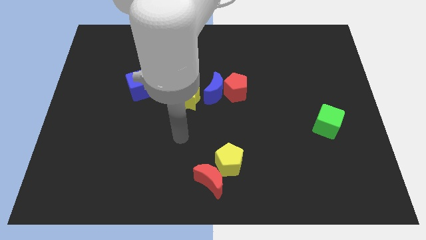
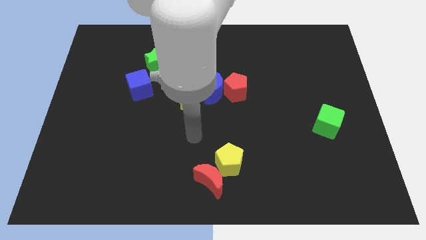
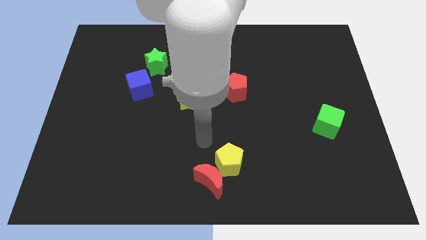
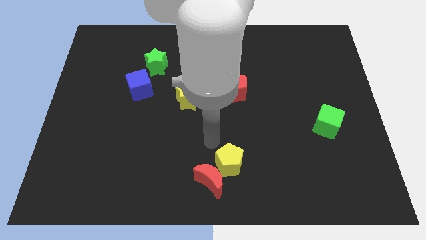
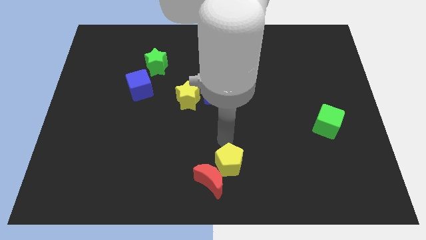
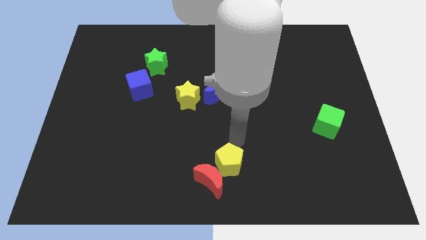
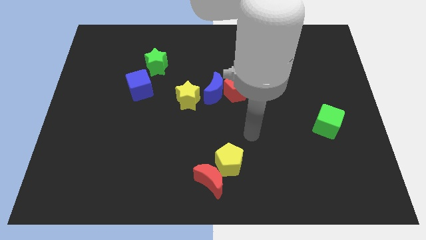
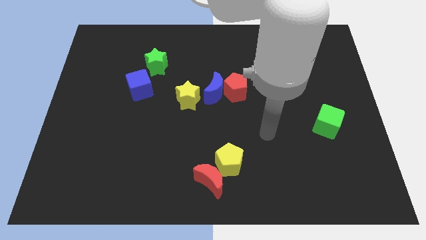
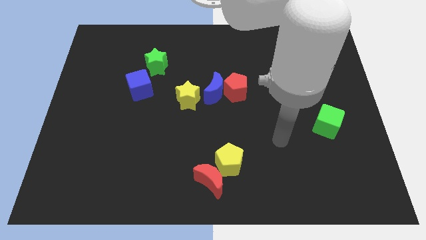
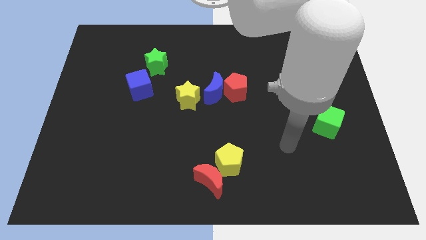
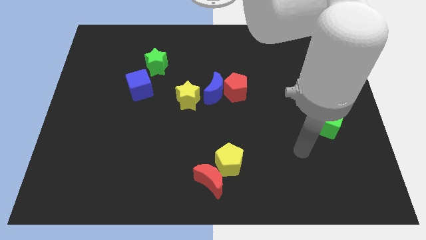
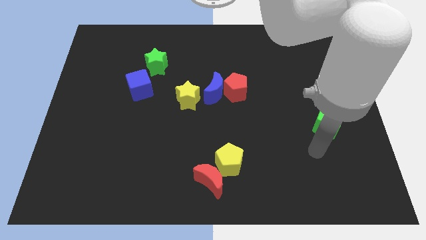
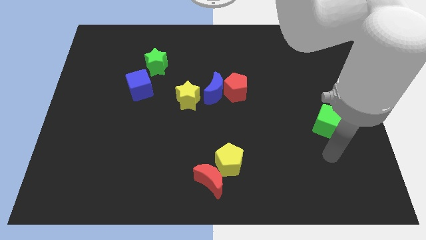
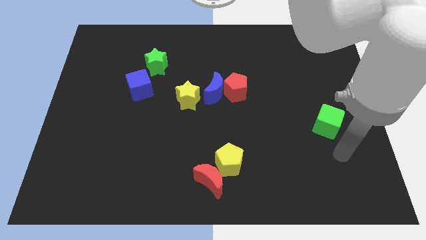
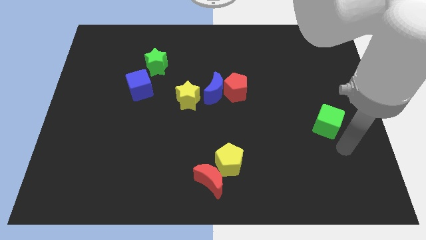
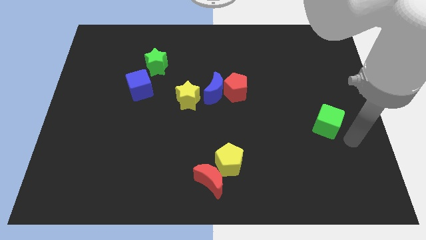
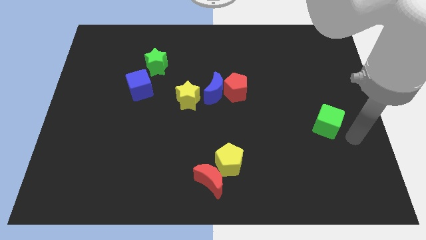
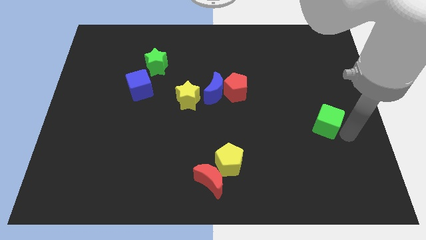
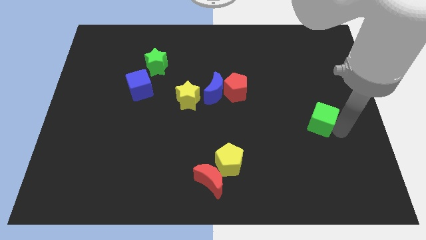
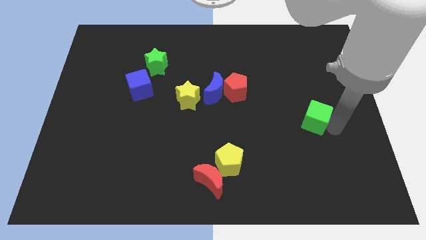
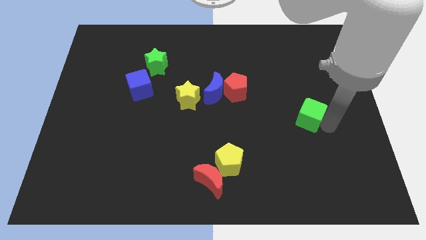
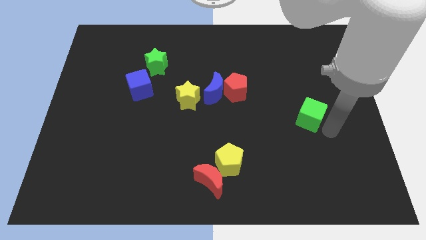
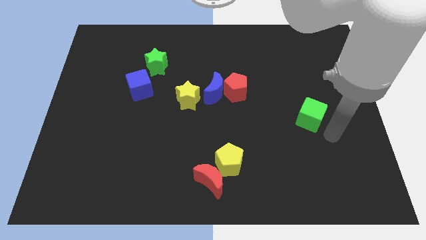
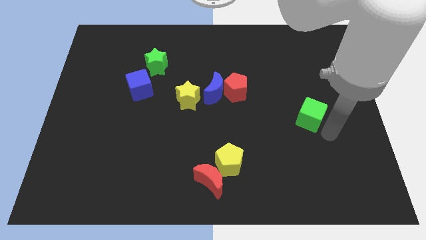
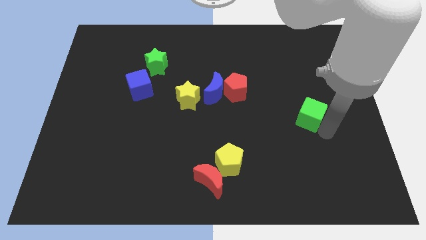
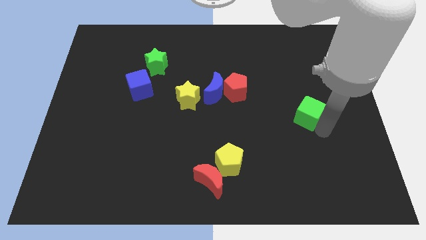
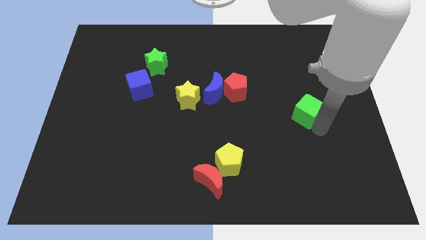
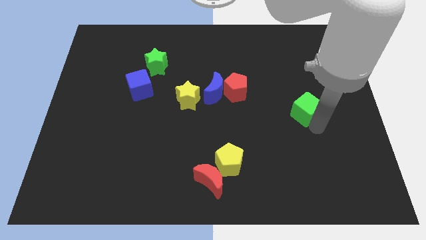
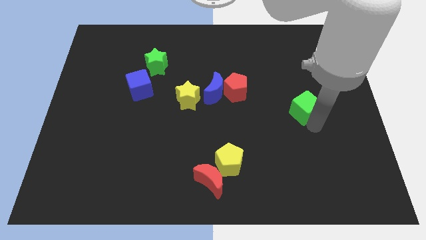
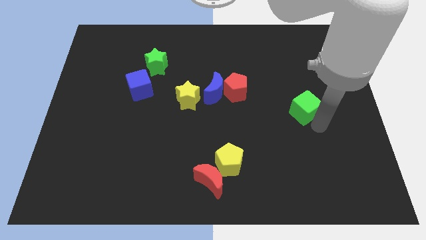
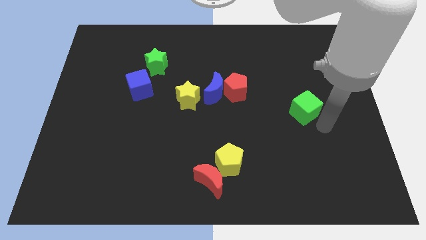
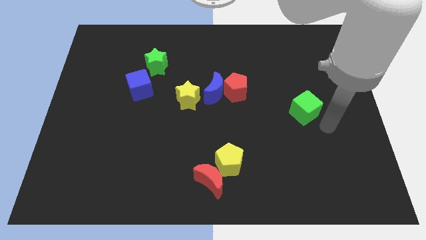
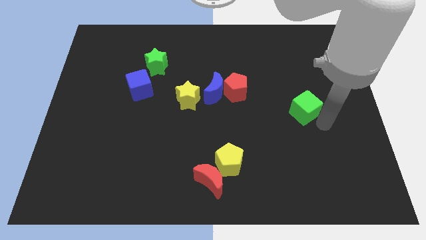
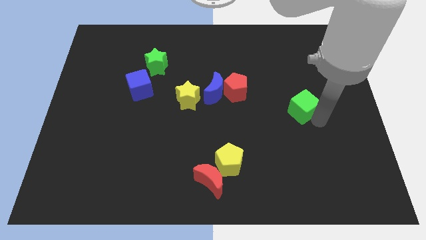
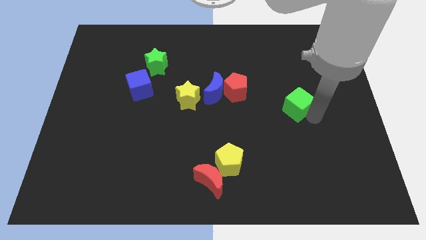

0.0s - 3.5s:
push the green cube a little bit diagonally up and left

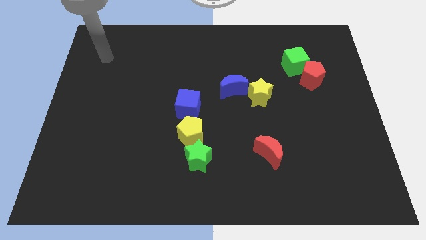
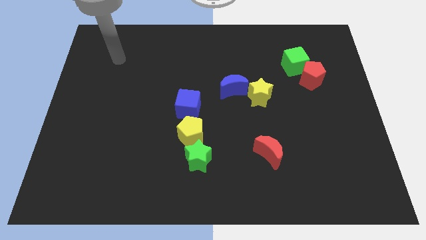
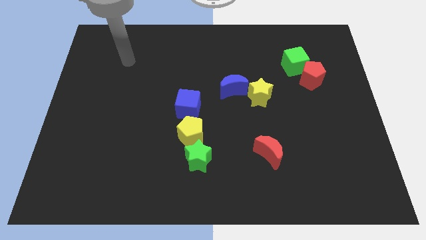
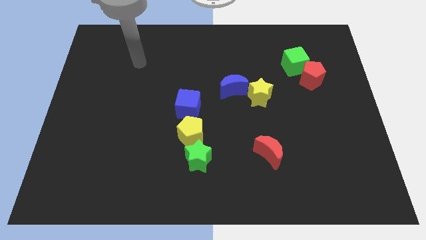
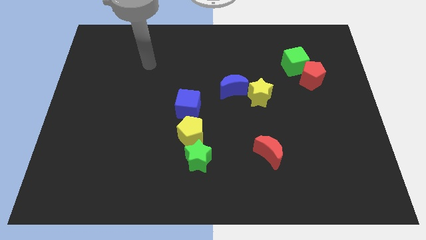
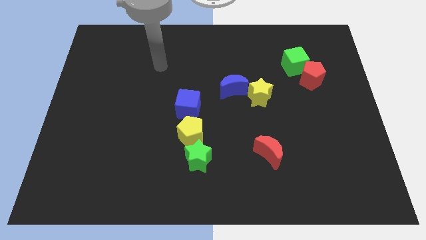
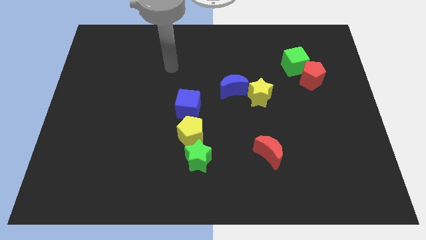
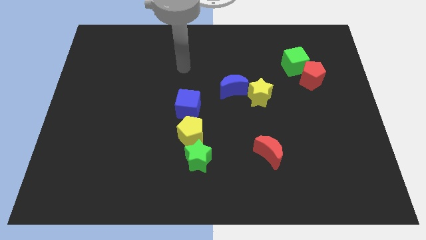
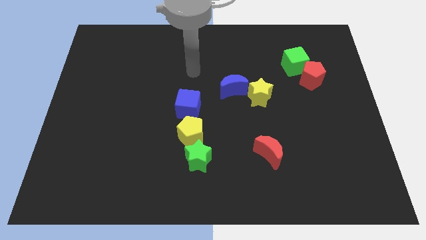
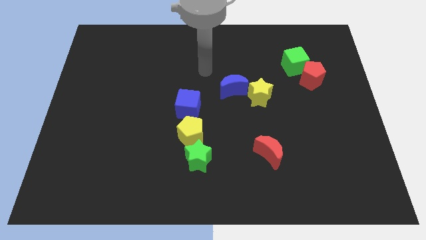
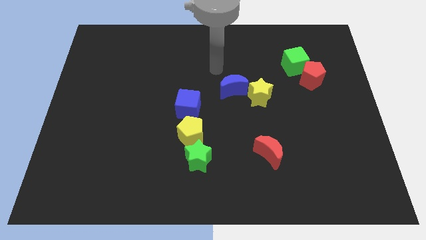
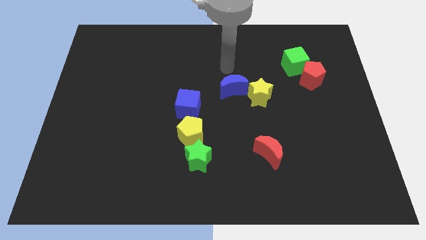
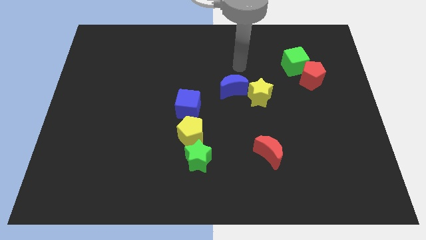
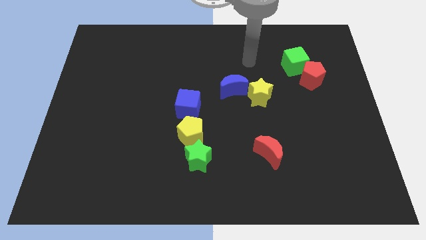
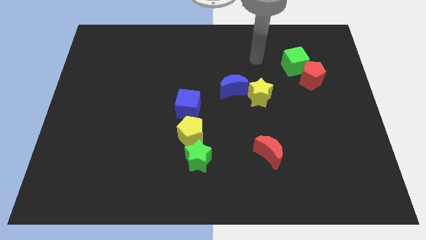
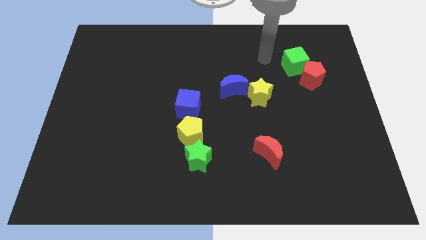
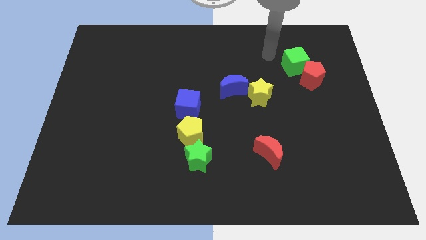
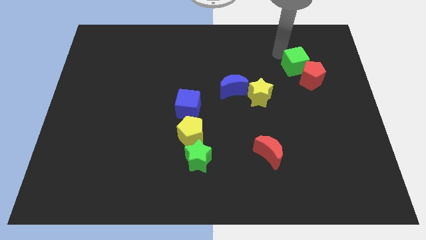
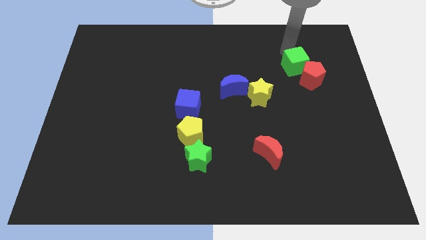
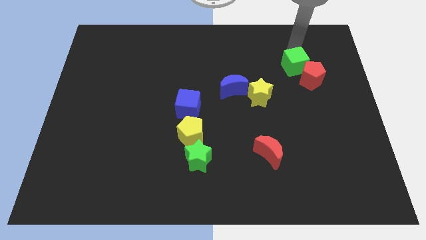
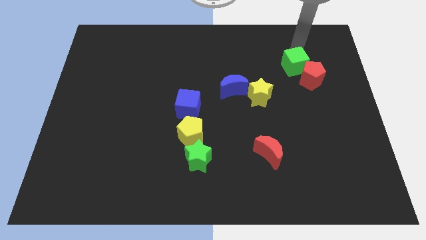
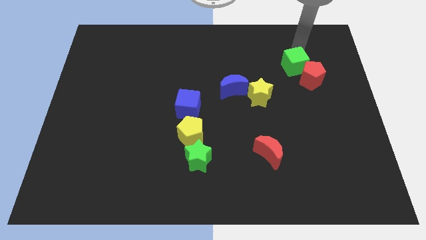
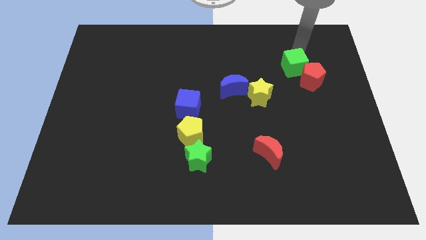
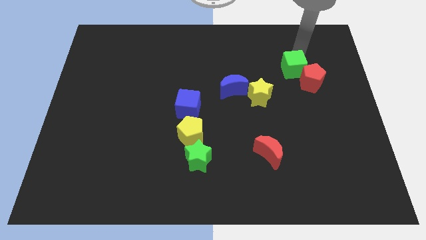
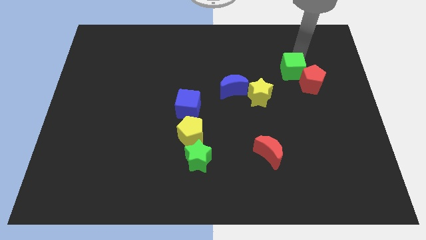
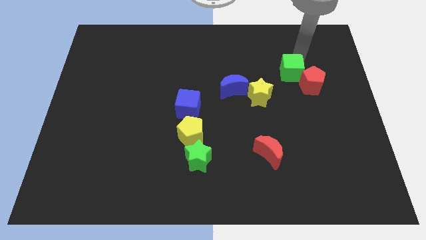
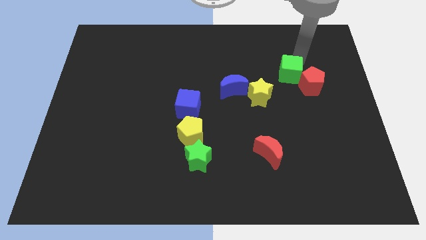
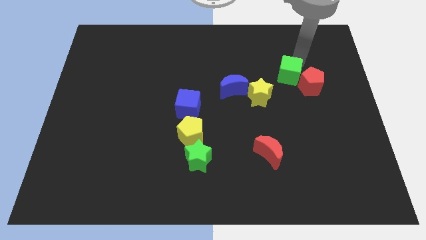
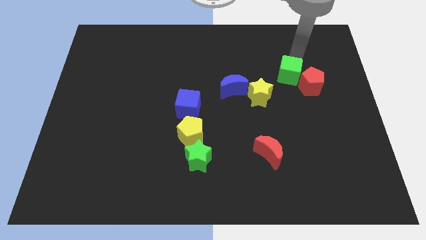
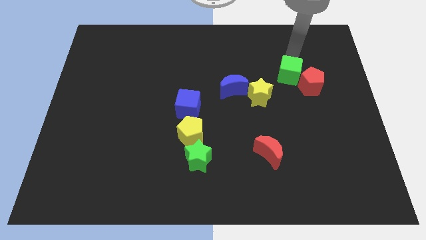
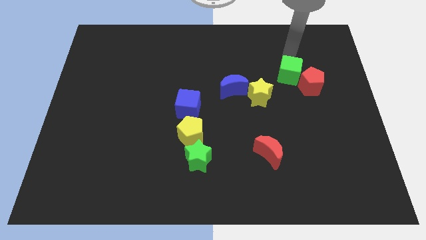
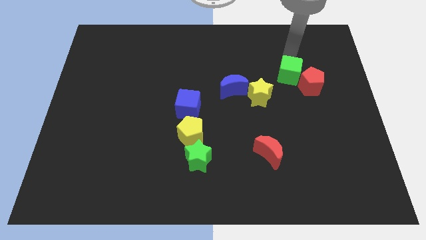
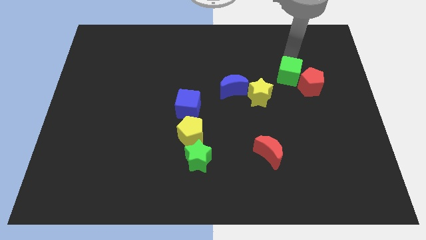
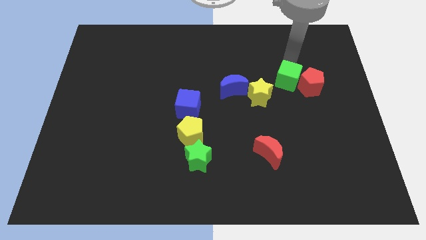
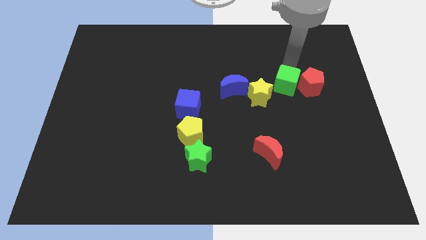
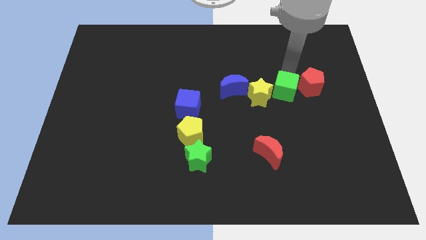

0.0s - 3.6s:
move the green cube a little downwards and left diagonally

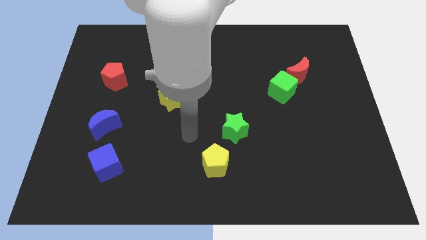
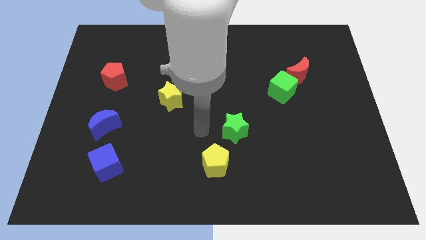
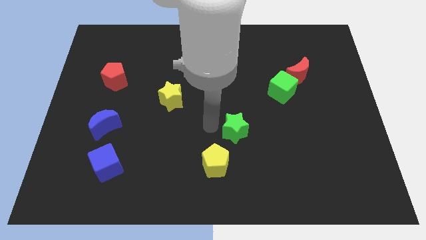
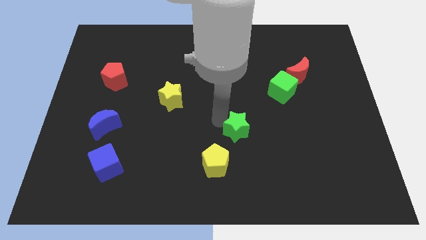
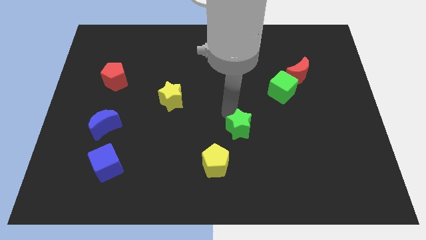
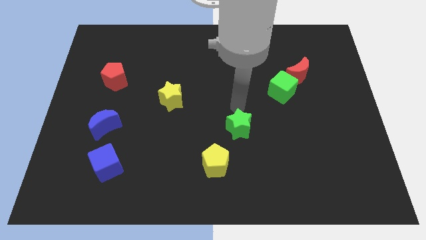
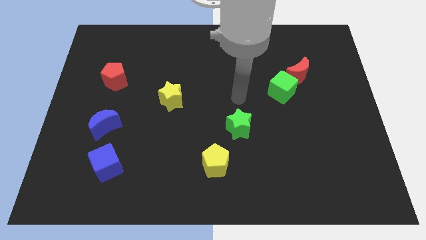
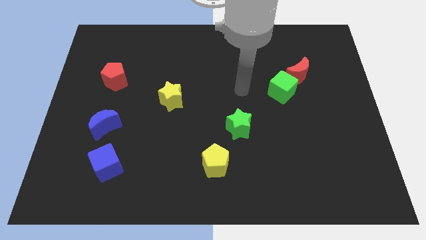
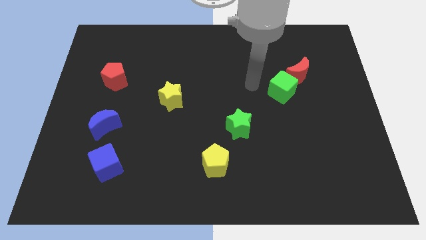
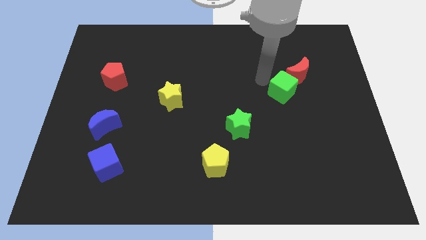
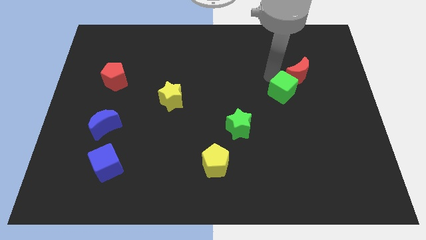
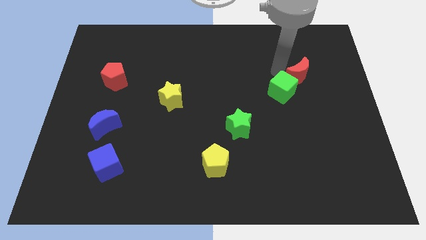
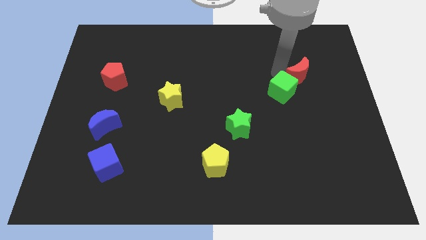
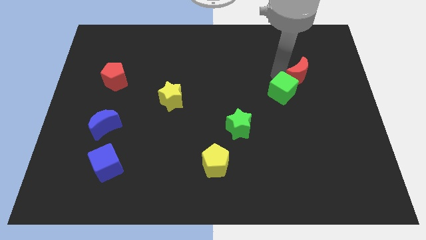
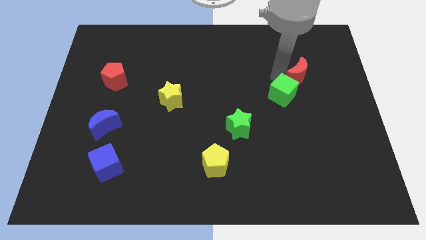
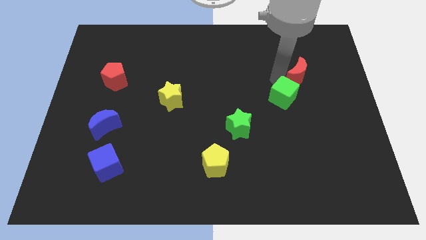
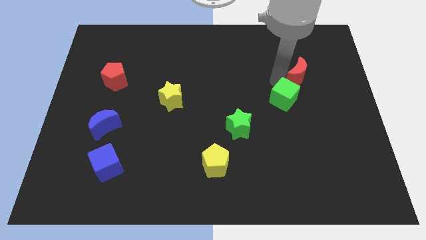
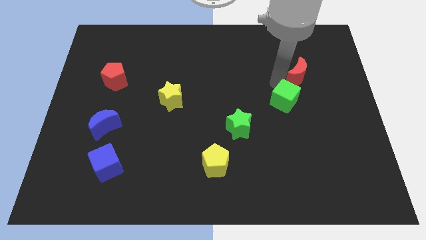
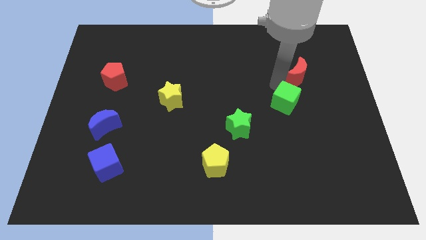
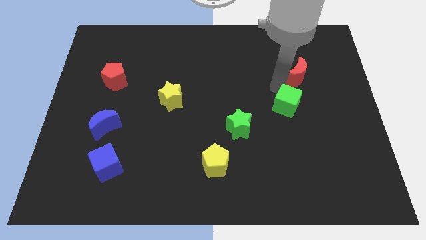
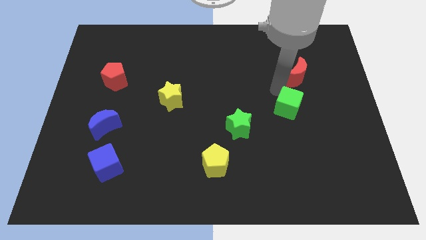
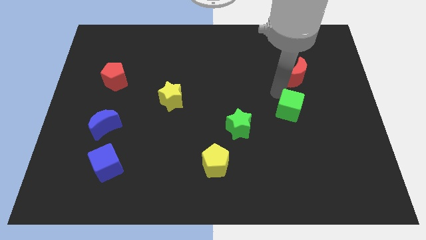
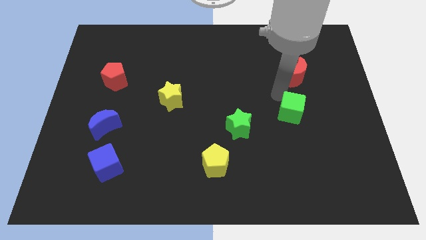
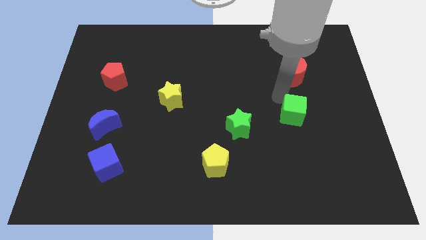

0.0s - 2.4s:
push the green cube a little downwards
